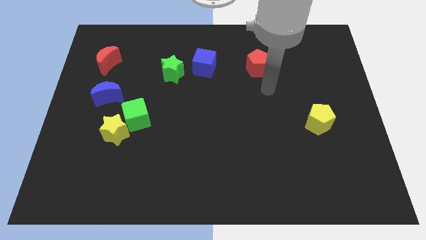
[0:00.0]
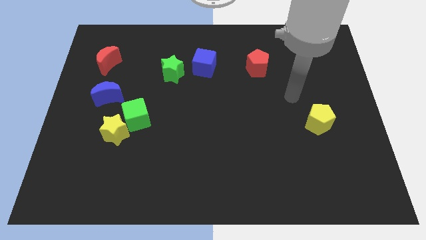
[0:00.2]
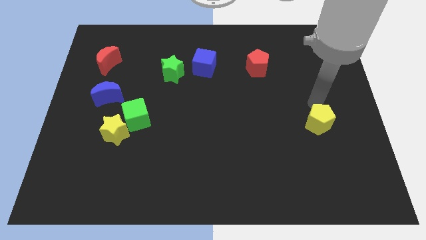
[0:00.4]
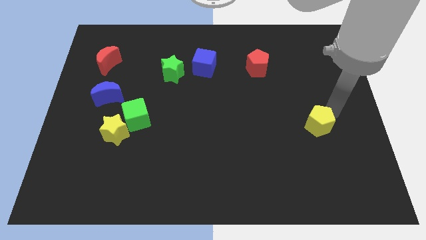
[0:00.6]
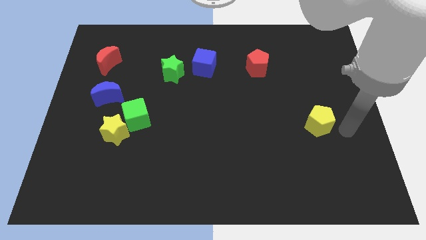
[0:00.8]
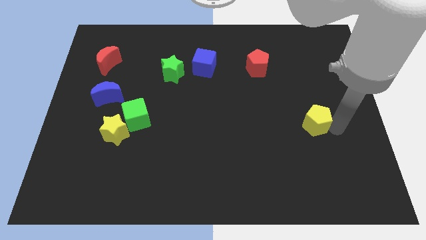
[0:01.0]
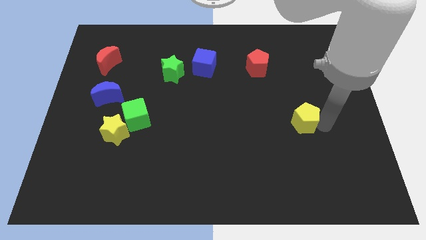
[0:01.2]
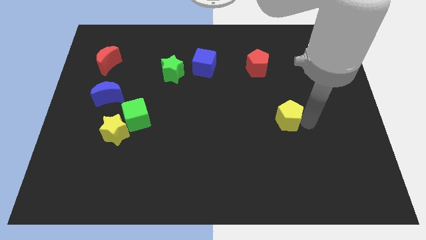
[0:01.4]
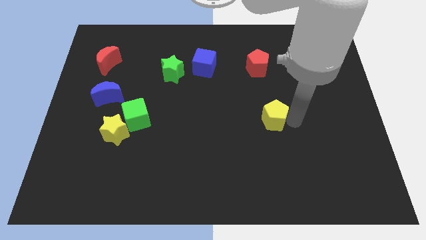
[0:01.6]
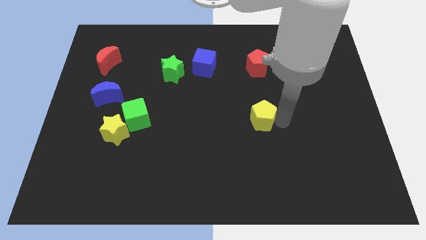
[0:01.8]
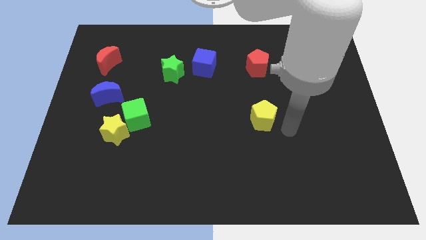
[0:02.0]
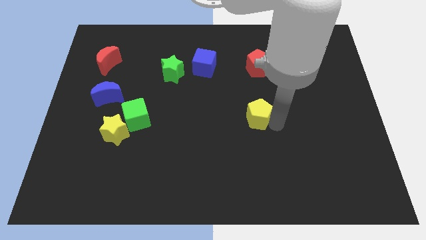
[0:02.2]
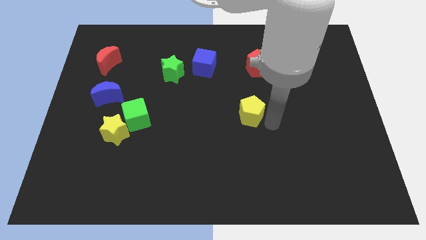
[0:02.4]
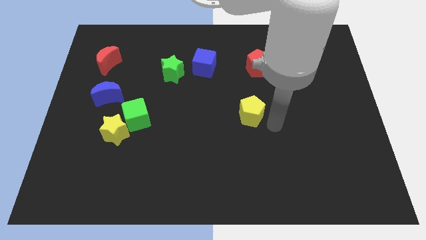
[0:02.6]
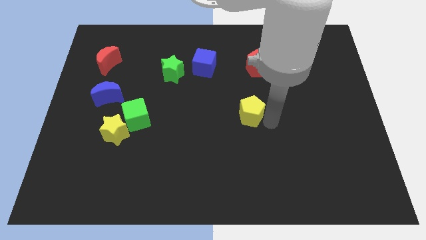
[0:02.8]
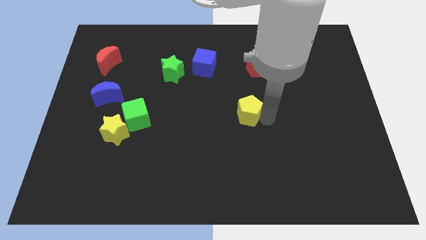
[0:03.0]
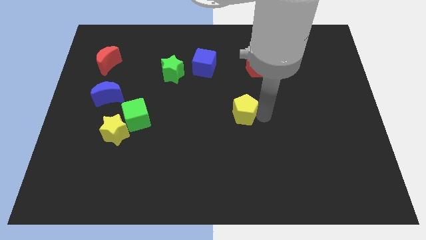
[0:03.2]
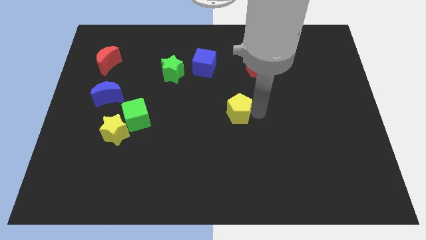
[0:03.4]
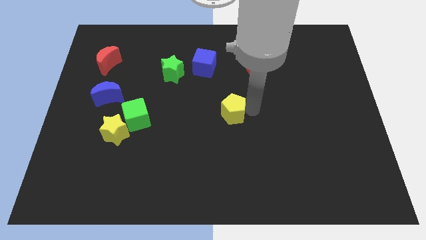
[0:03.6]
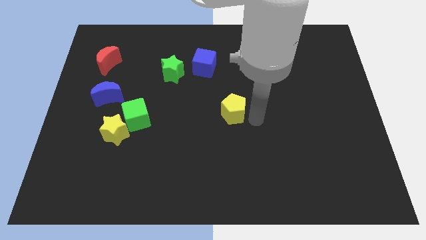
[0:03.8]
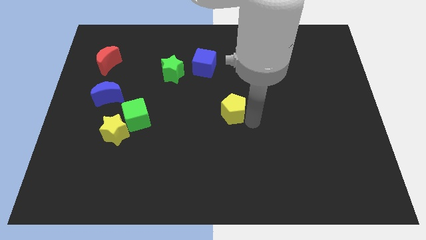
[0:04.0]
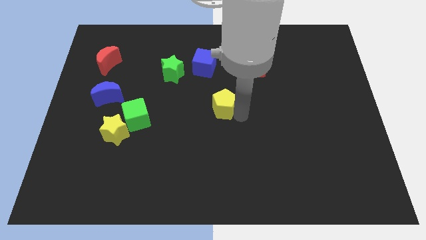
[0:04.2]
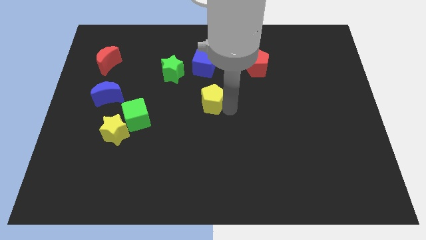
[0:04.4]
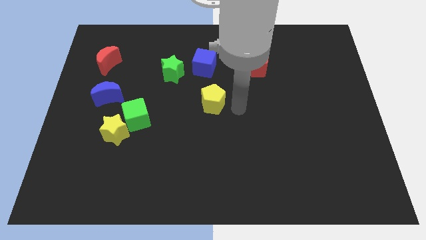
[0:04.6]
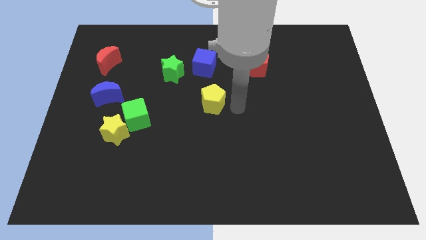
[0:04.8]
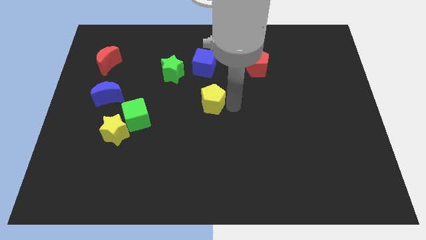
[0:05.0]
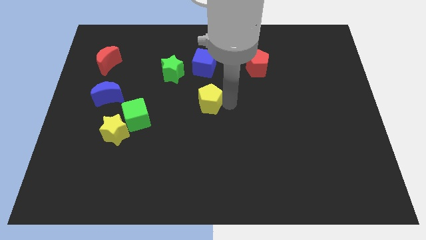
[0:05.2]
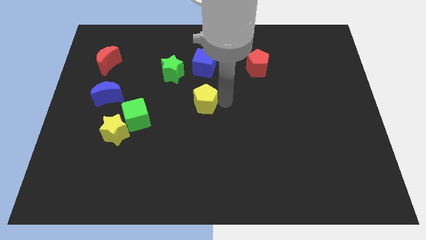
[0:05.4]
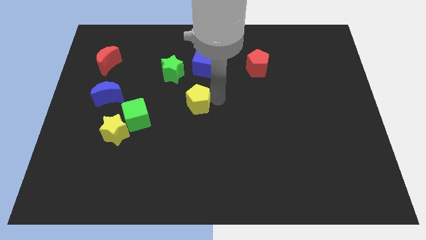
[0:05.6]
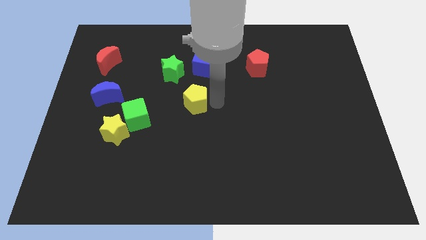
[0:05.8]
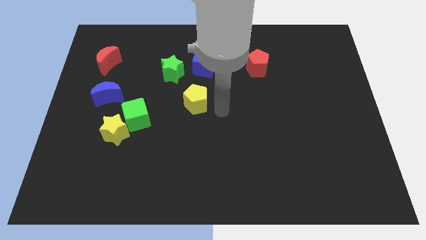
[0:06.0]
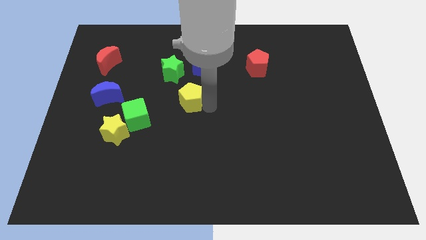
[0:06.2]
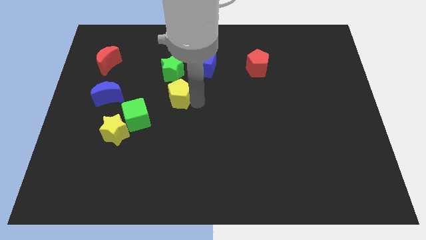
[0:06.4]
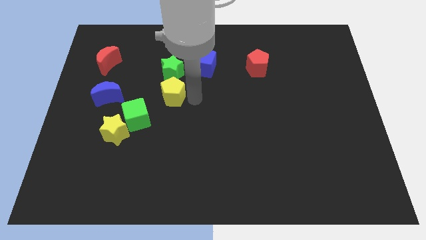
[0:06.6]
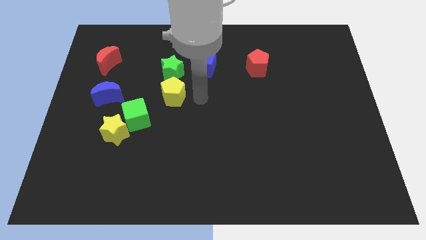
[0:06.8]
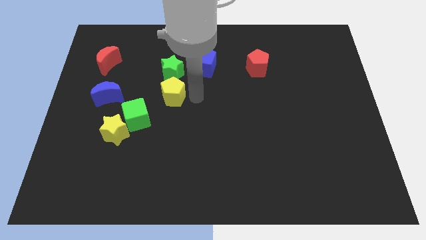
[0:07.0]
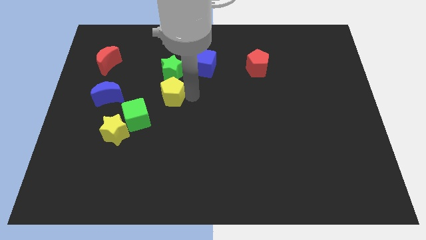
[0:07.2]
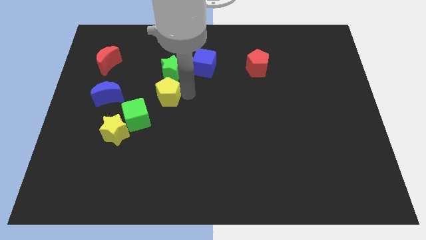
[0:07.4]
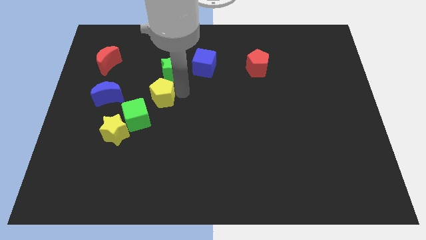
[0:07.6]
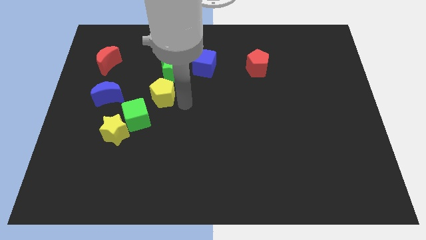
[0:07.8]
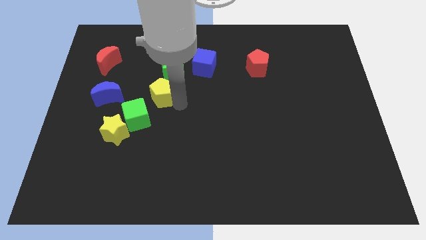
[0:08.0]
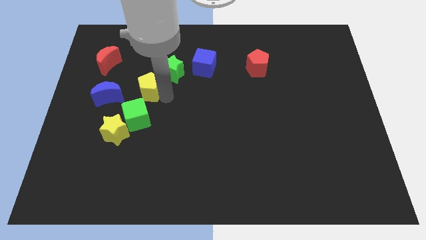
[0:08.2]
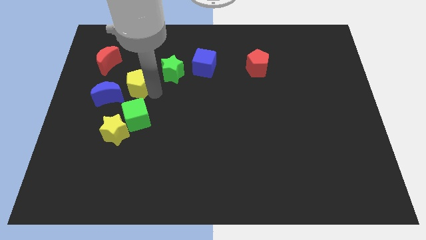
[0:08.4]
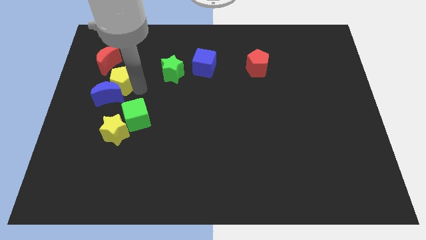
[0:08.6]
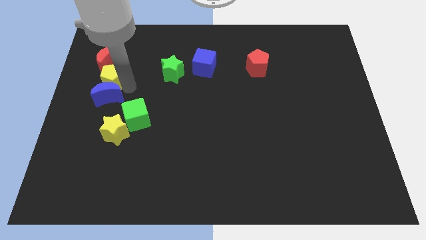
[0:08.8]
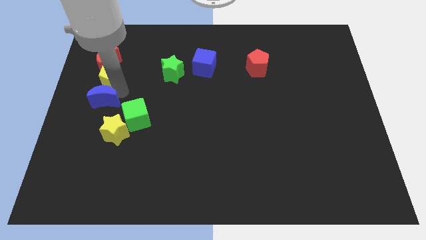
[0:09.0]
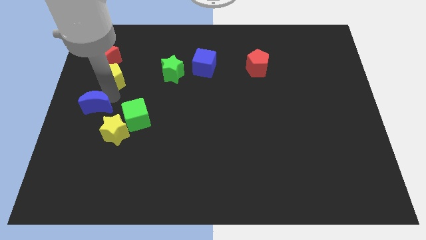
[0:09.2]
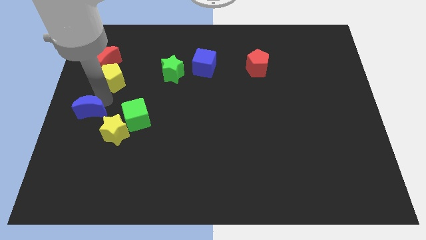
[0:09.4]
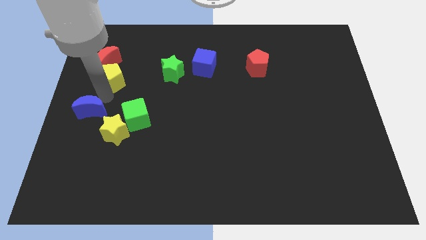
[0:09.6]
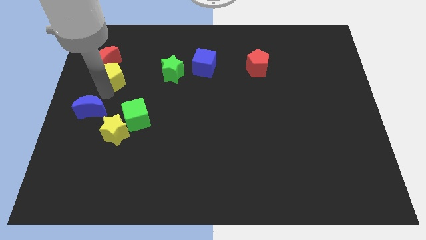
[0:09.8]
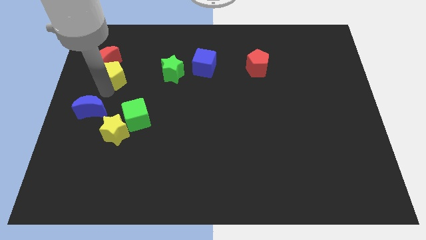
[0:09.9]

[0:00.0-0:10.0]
push the yellow pentagon next to the red moon

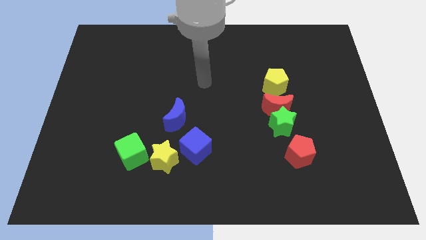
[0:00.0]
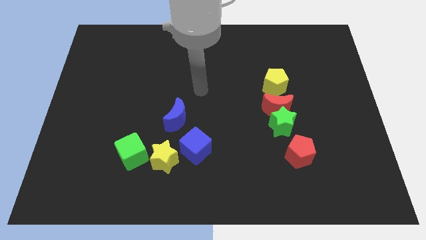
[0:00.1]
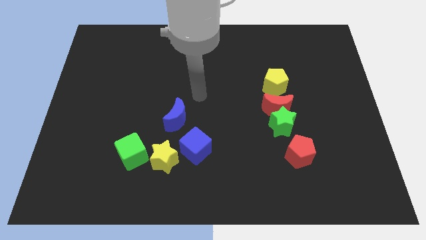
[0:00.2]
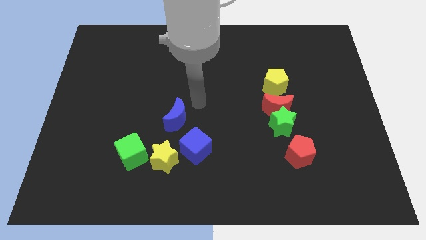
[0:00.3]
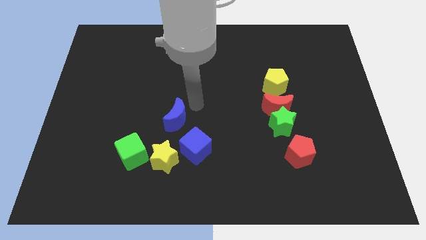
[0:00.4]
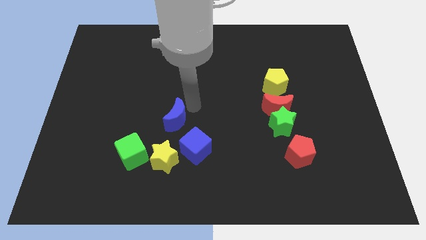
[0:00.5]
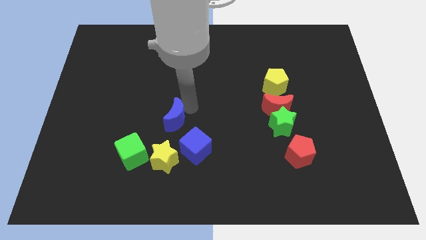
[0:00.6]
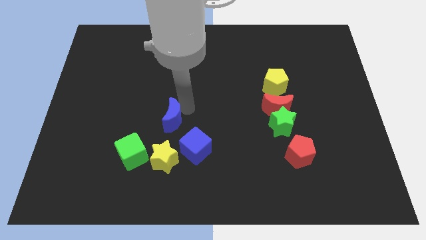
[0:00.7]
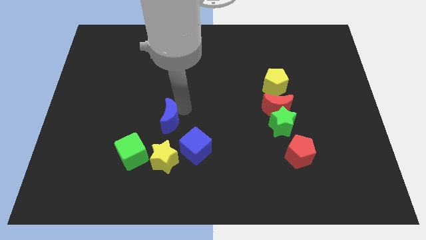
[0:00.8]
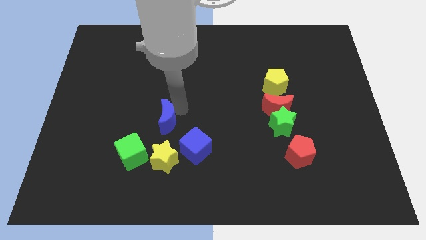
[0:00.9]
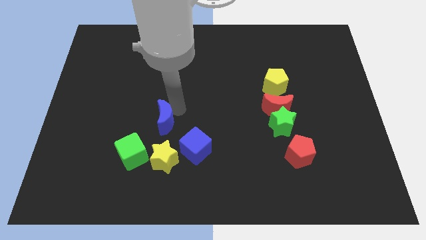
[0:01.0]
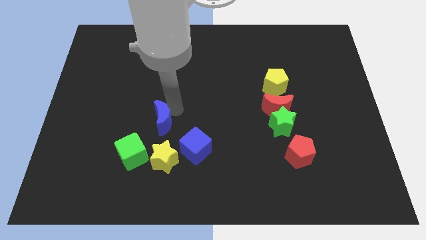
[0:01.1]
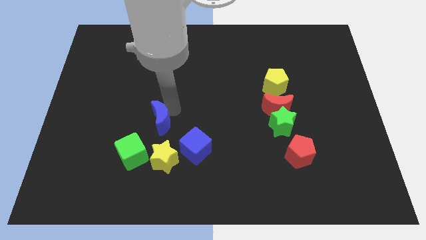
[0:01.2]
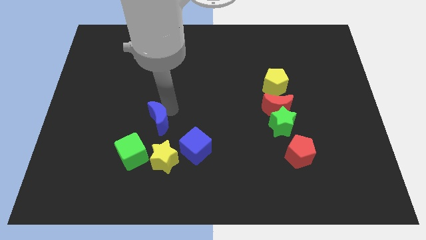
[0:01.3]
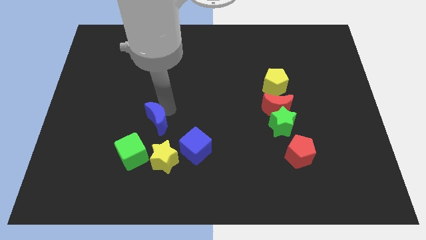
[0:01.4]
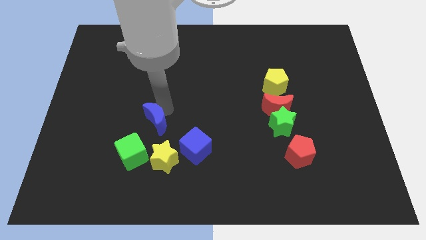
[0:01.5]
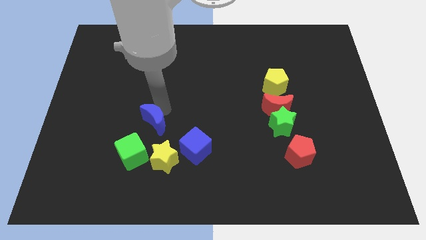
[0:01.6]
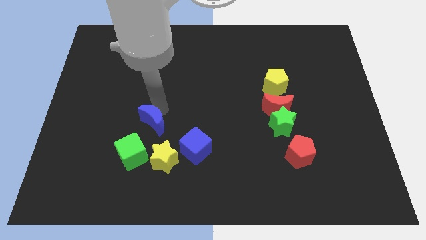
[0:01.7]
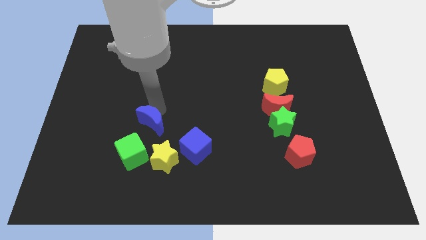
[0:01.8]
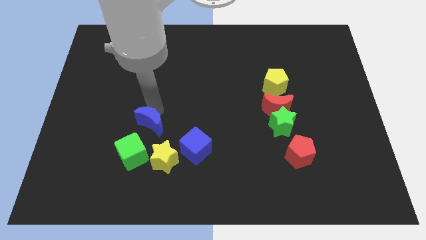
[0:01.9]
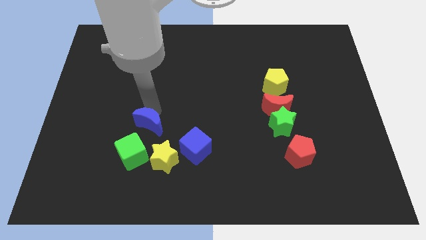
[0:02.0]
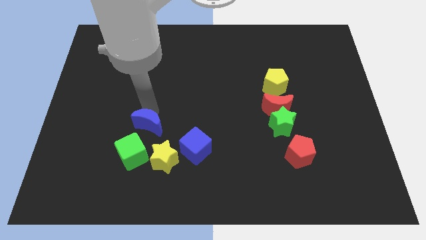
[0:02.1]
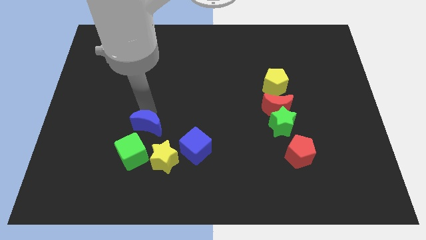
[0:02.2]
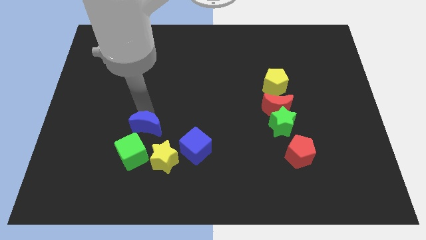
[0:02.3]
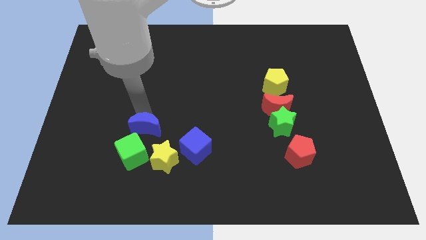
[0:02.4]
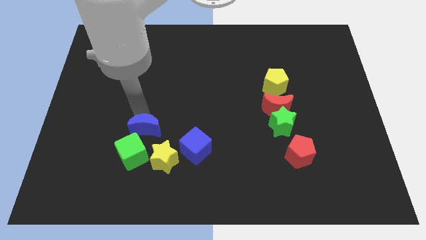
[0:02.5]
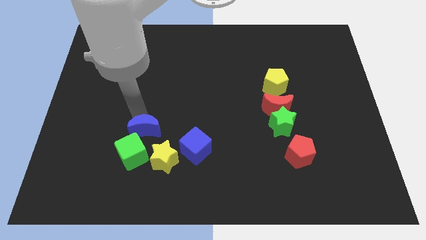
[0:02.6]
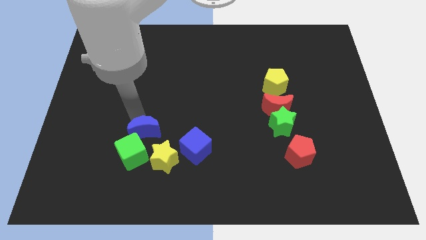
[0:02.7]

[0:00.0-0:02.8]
put the blue moon next to the green cube
